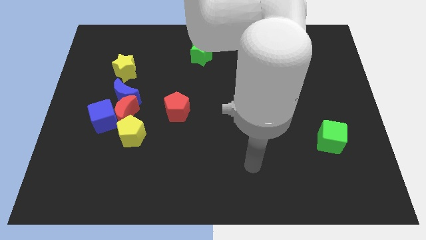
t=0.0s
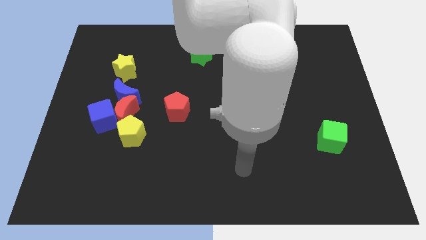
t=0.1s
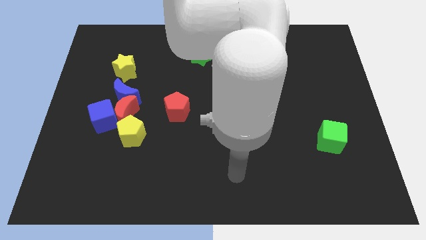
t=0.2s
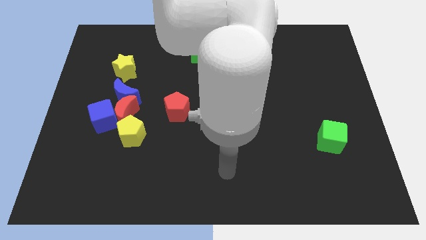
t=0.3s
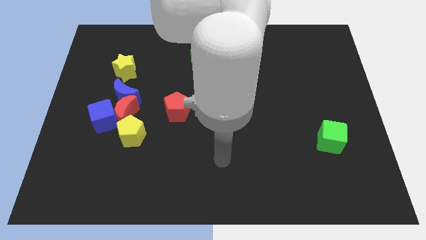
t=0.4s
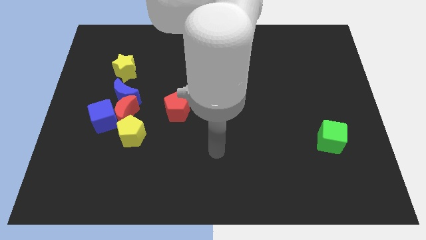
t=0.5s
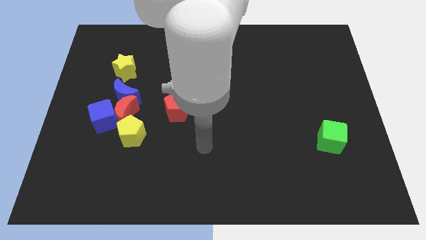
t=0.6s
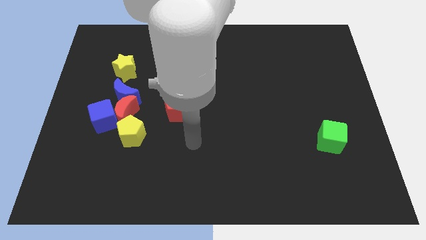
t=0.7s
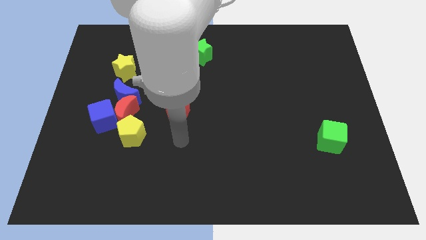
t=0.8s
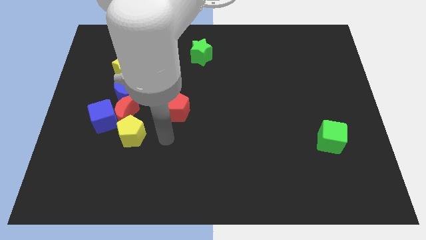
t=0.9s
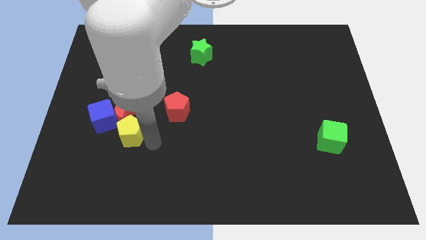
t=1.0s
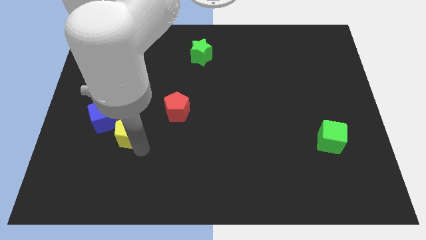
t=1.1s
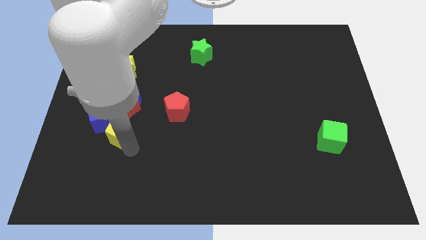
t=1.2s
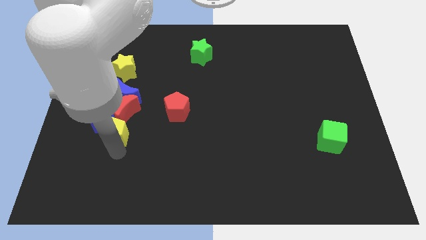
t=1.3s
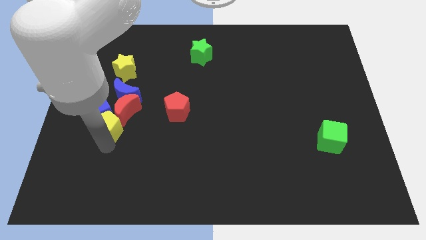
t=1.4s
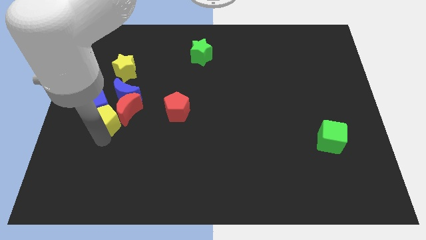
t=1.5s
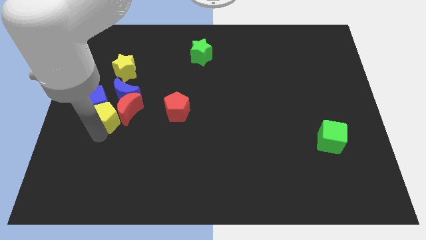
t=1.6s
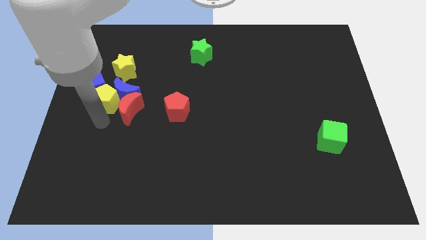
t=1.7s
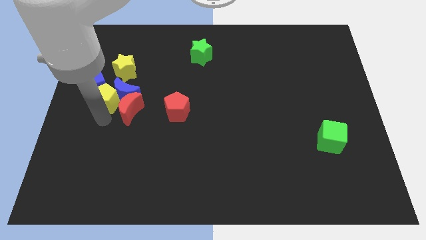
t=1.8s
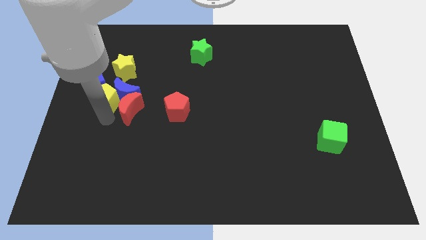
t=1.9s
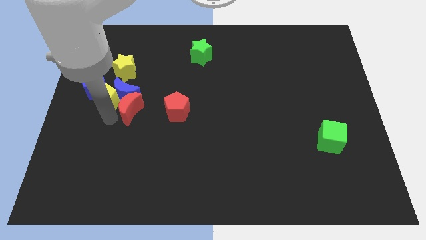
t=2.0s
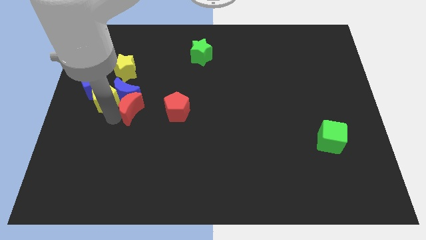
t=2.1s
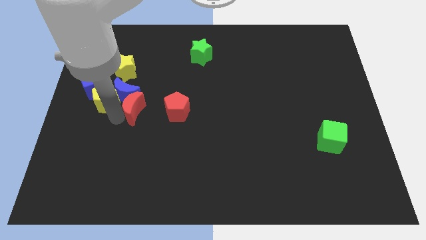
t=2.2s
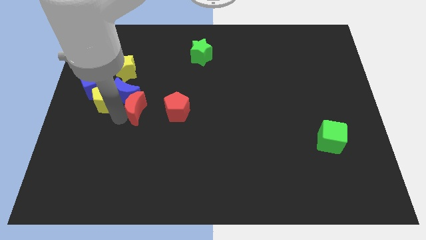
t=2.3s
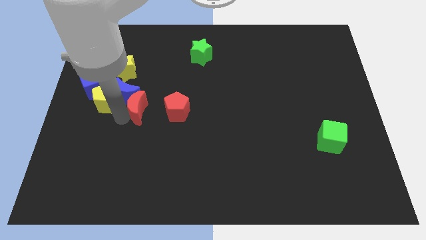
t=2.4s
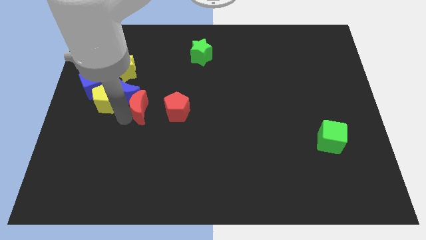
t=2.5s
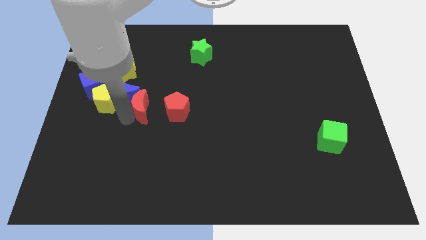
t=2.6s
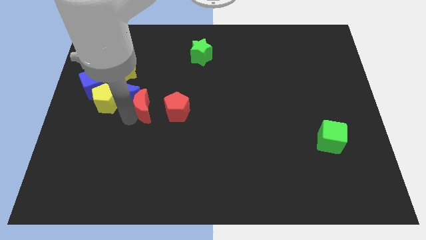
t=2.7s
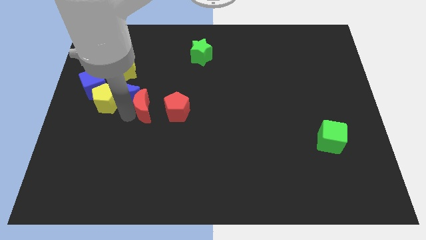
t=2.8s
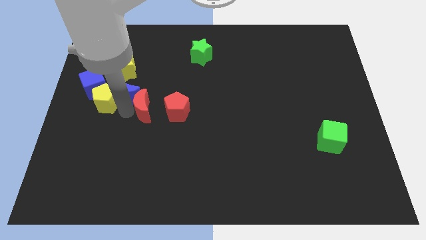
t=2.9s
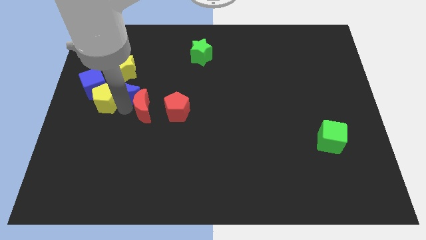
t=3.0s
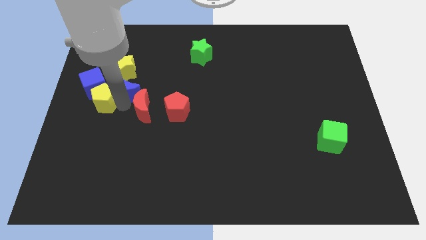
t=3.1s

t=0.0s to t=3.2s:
separate the red moon from the clump

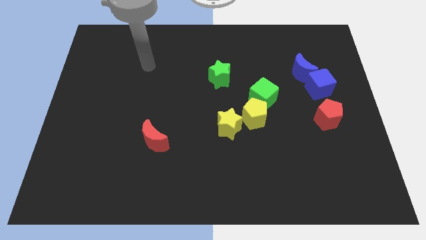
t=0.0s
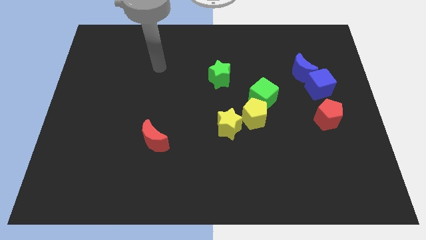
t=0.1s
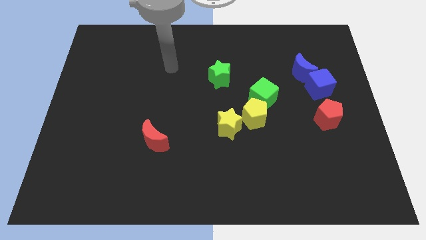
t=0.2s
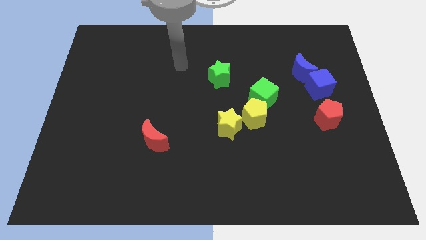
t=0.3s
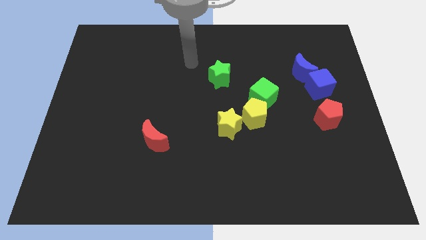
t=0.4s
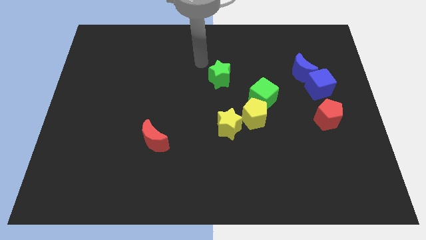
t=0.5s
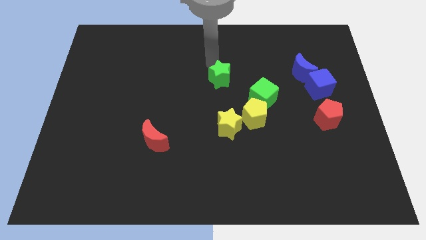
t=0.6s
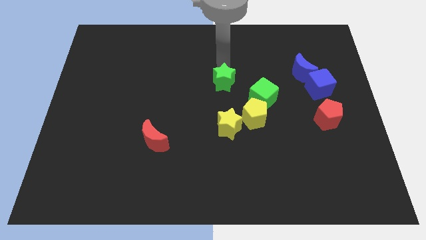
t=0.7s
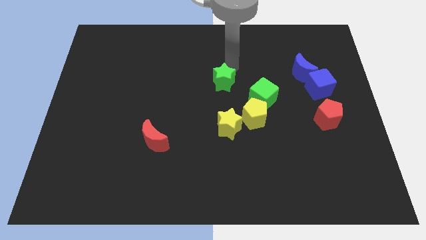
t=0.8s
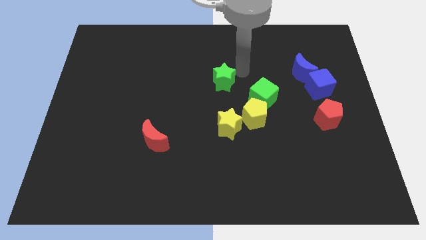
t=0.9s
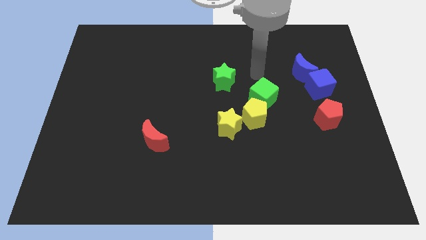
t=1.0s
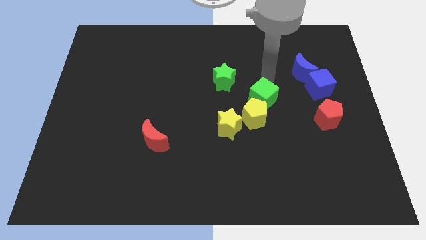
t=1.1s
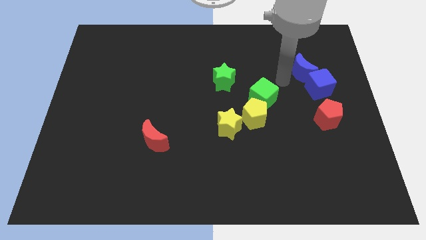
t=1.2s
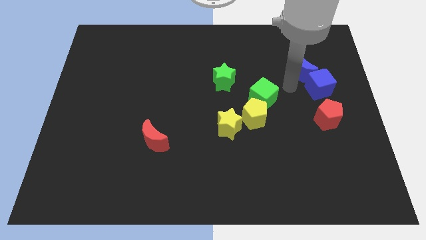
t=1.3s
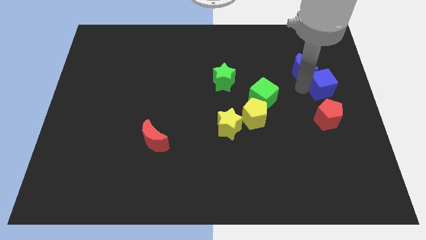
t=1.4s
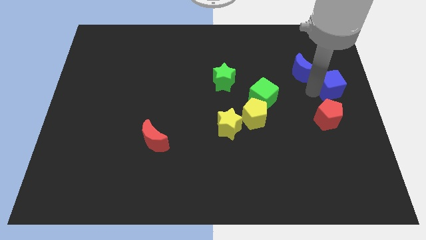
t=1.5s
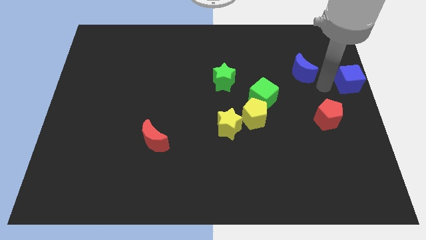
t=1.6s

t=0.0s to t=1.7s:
pull the blue moon apart from the blue cube

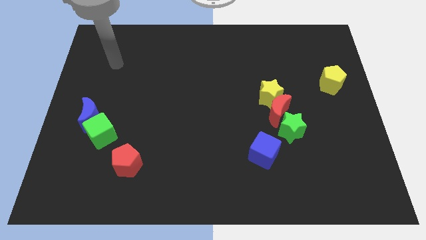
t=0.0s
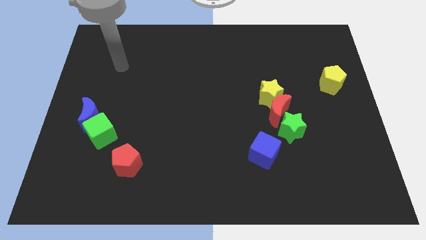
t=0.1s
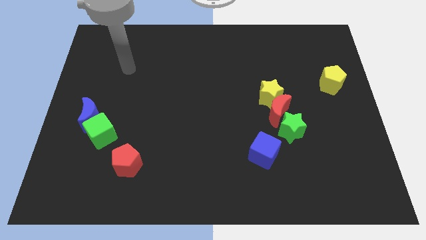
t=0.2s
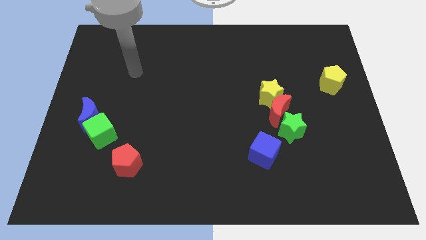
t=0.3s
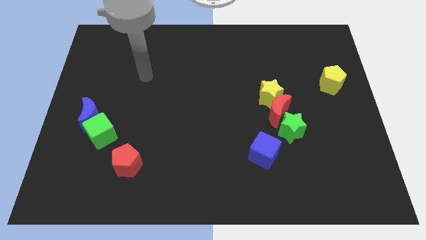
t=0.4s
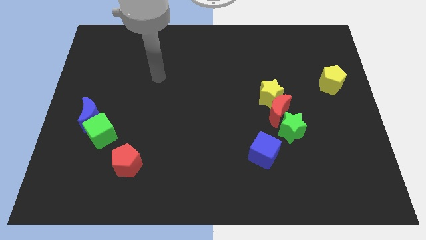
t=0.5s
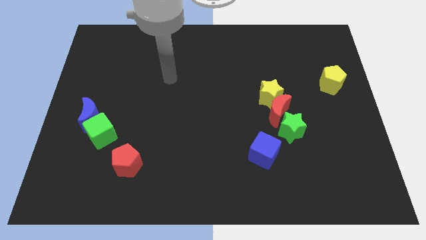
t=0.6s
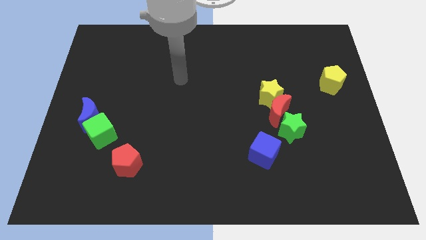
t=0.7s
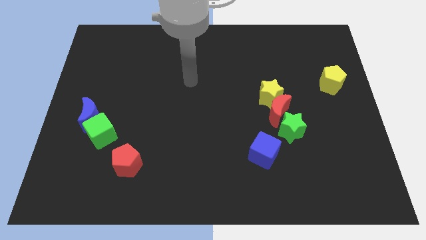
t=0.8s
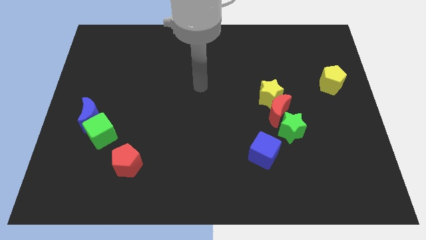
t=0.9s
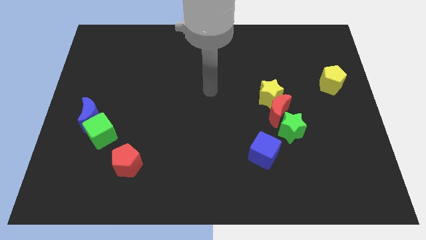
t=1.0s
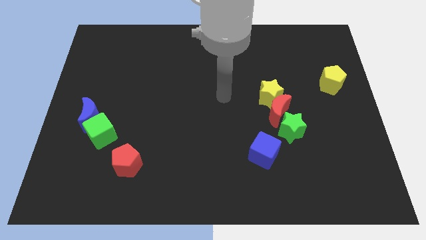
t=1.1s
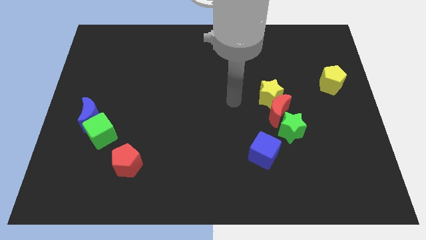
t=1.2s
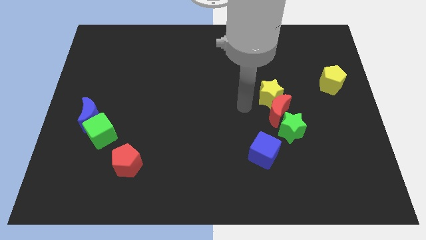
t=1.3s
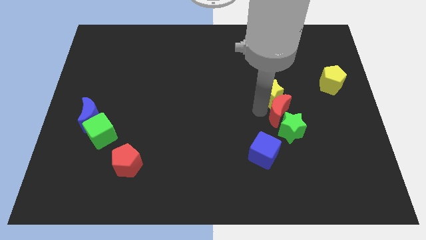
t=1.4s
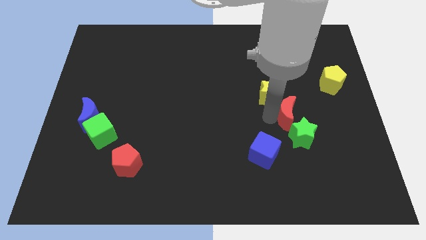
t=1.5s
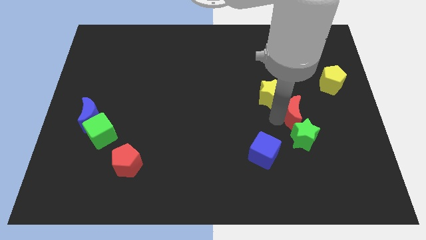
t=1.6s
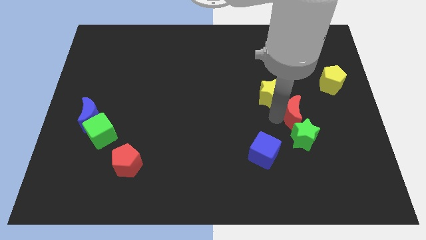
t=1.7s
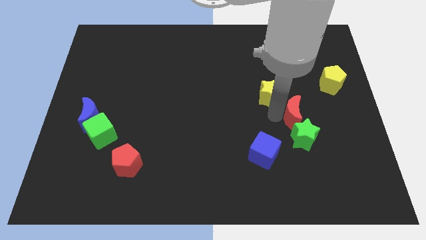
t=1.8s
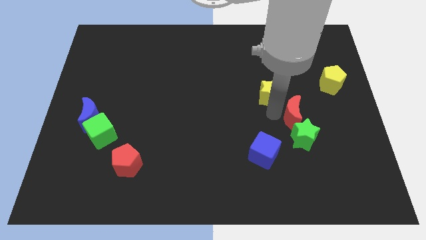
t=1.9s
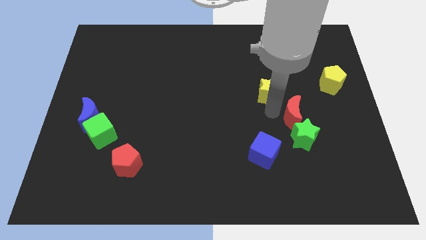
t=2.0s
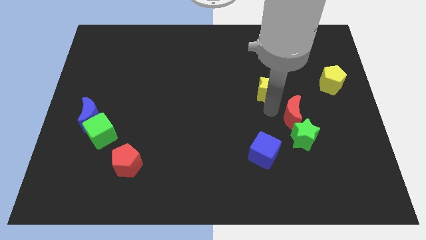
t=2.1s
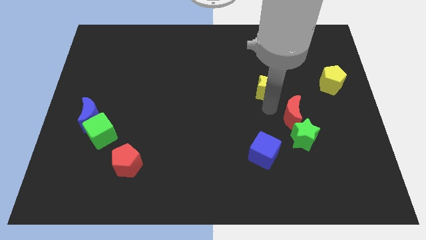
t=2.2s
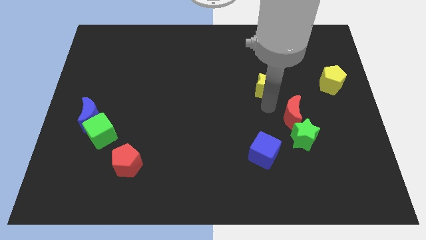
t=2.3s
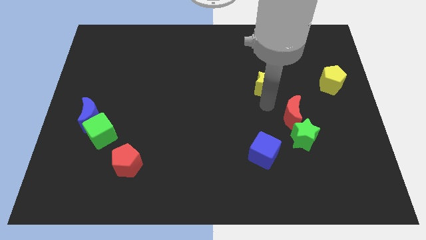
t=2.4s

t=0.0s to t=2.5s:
move the yellow star away from the red moon

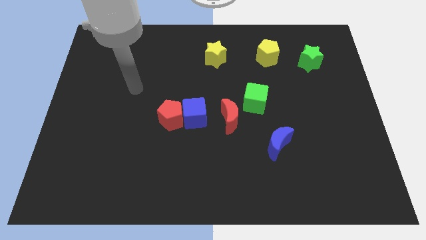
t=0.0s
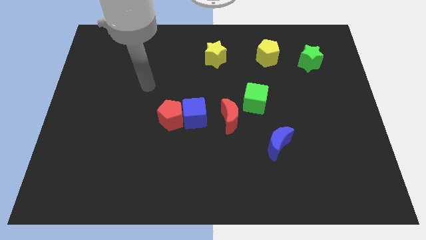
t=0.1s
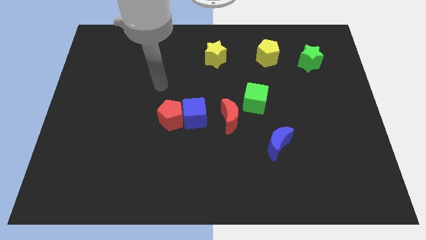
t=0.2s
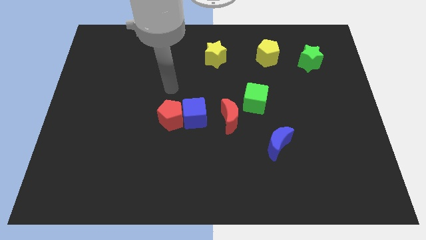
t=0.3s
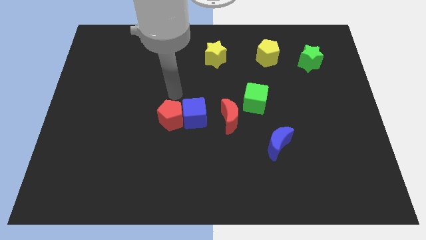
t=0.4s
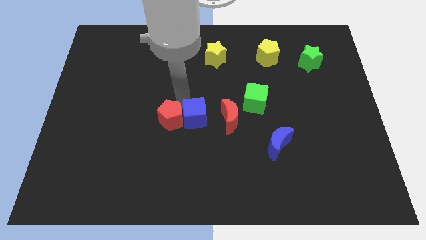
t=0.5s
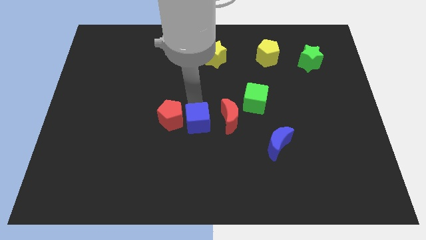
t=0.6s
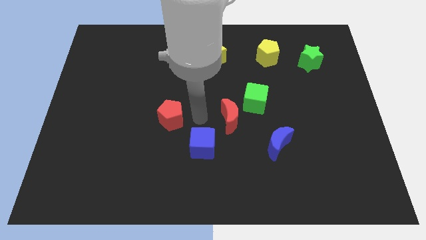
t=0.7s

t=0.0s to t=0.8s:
separate the red pentagon from the blue cube

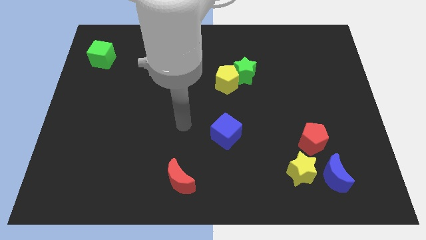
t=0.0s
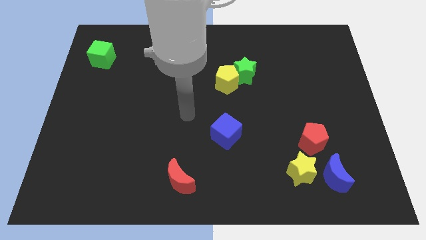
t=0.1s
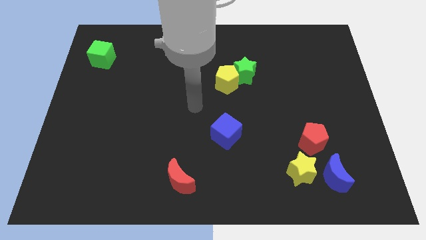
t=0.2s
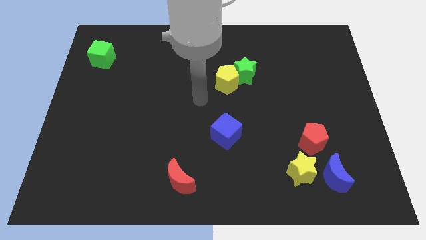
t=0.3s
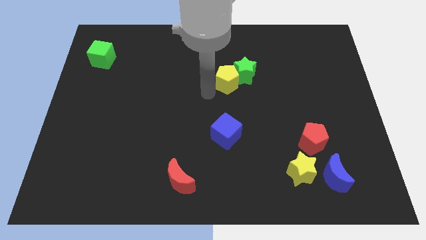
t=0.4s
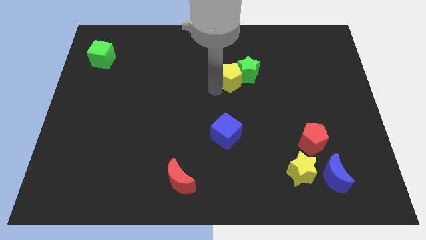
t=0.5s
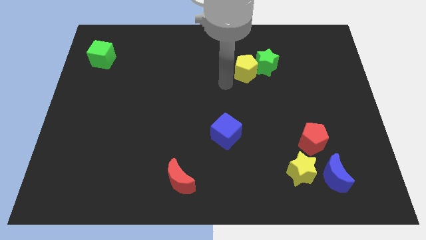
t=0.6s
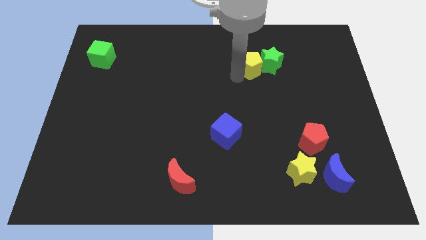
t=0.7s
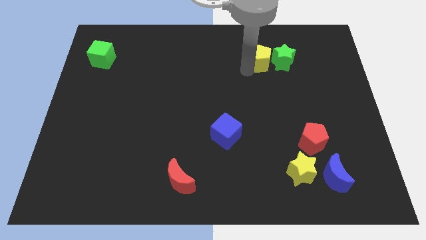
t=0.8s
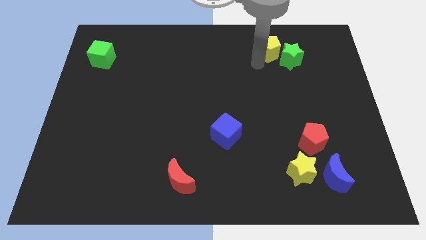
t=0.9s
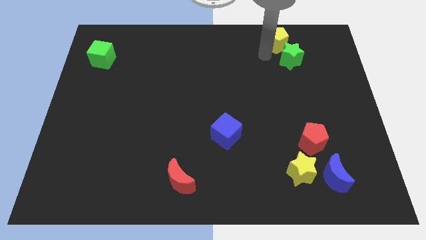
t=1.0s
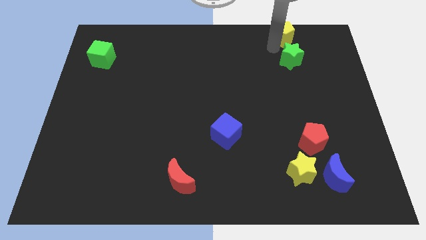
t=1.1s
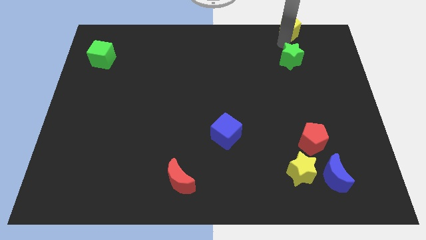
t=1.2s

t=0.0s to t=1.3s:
move the green star away from the yellow pentagon
